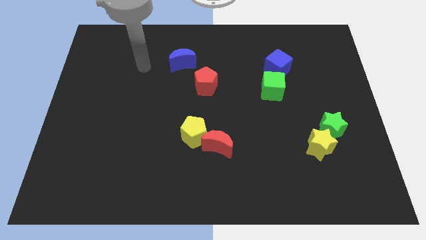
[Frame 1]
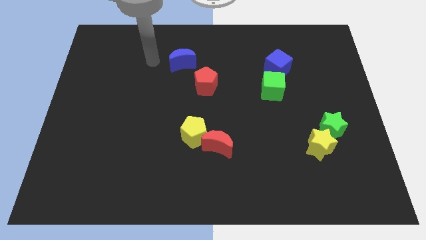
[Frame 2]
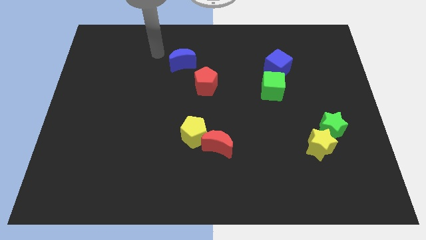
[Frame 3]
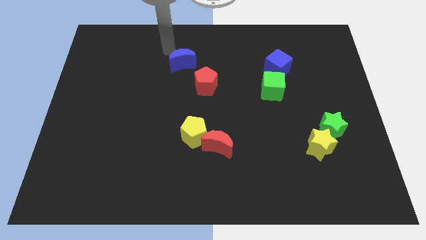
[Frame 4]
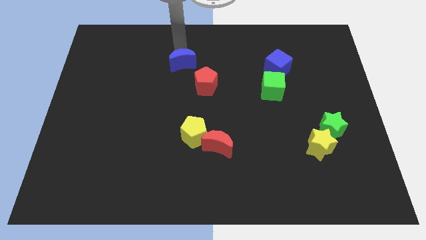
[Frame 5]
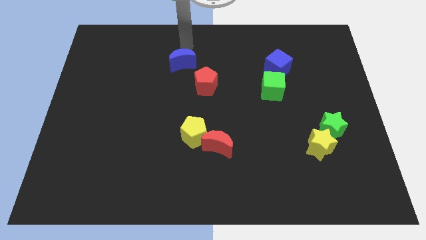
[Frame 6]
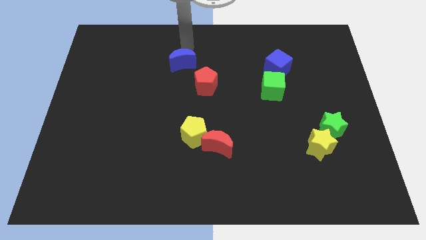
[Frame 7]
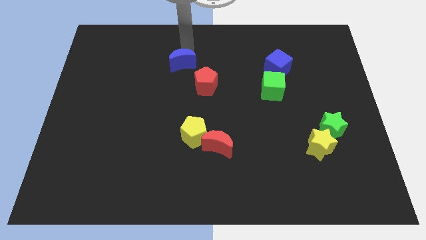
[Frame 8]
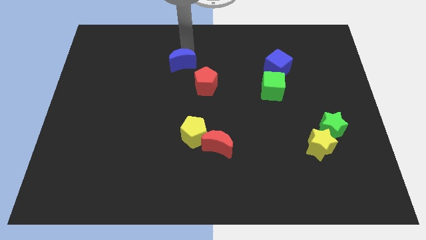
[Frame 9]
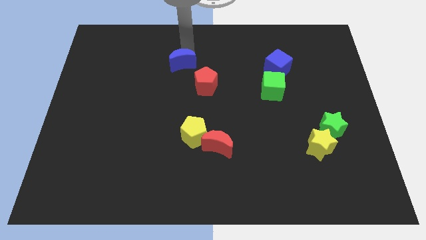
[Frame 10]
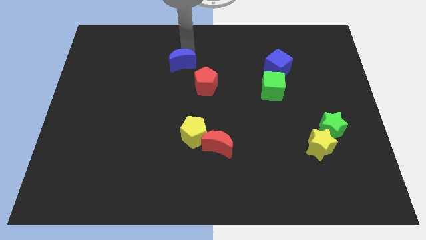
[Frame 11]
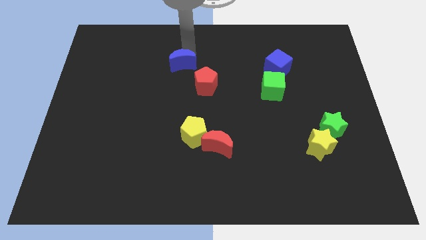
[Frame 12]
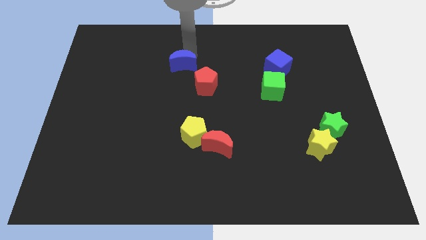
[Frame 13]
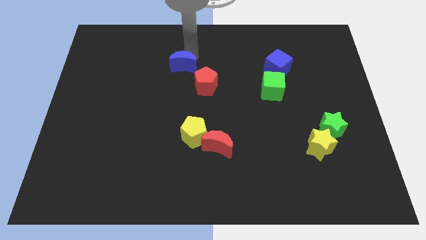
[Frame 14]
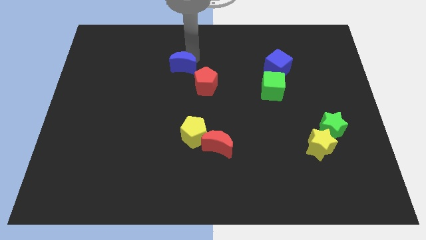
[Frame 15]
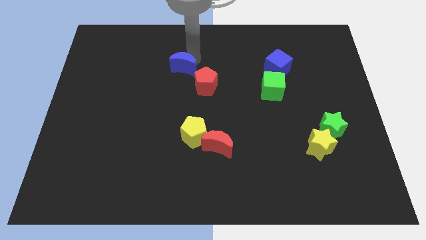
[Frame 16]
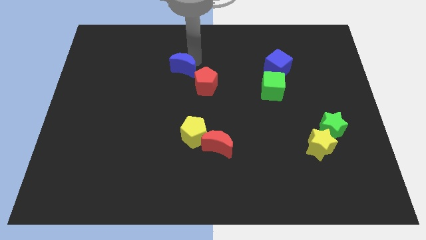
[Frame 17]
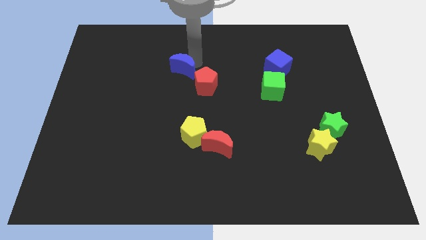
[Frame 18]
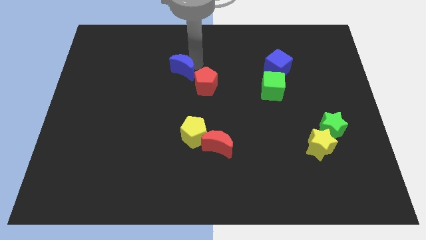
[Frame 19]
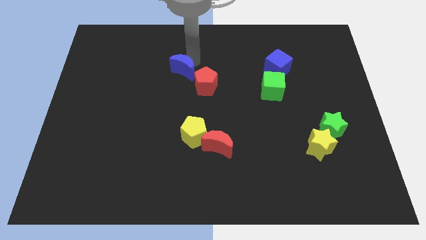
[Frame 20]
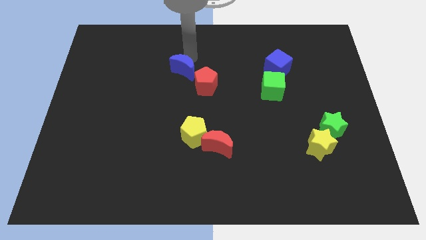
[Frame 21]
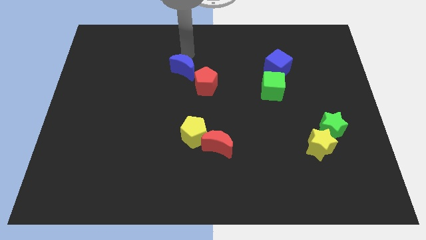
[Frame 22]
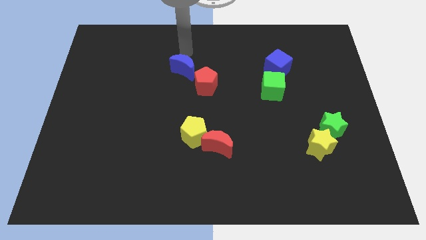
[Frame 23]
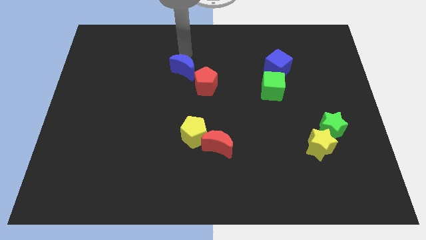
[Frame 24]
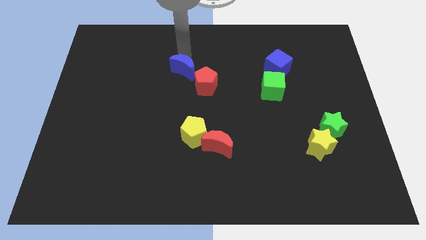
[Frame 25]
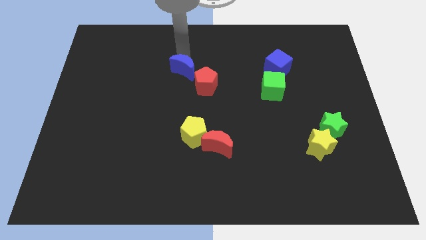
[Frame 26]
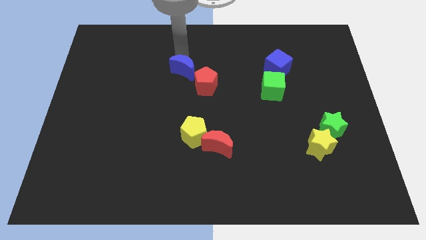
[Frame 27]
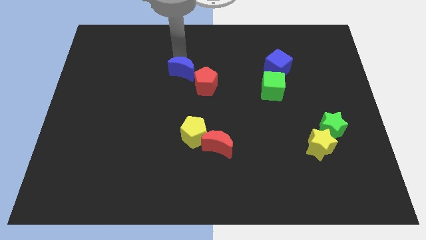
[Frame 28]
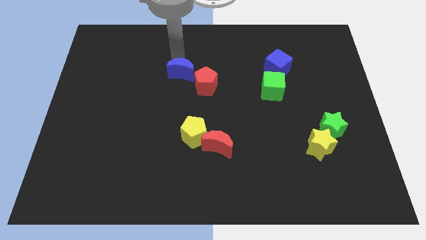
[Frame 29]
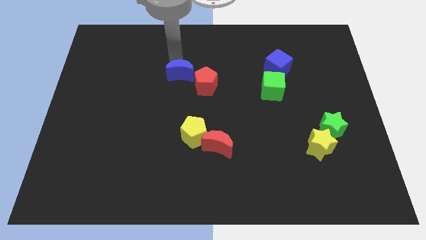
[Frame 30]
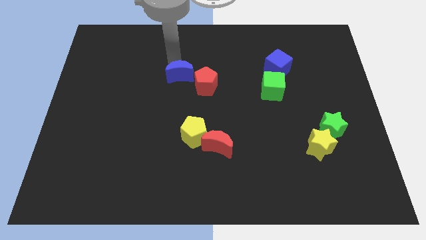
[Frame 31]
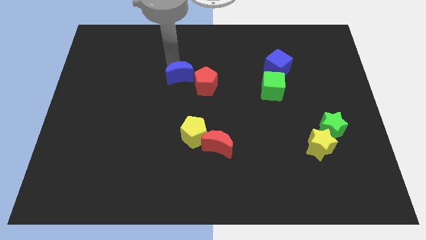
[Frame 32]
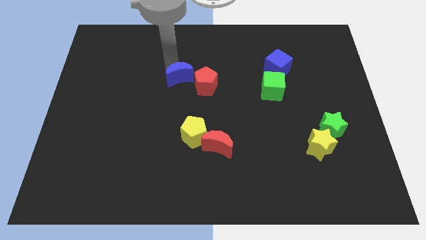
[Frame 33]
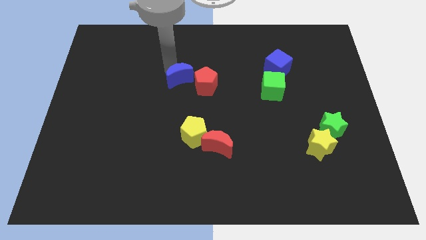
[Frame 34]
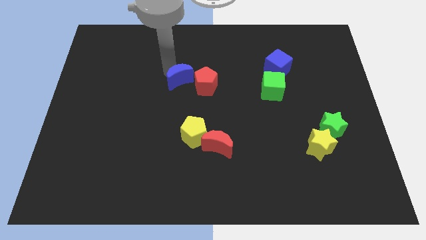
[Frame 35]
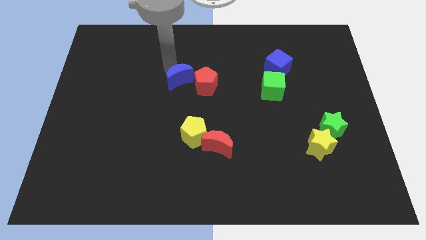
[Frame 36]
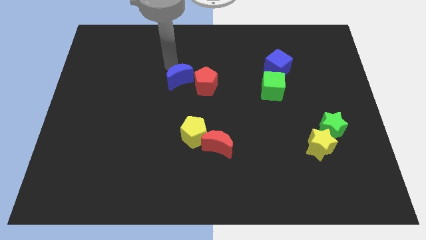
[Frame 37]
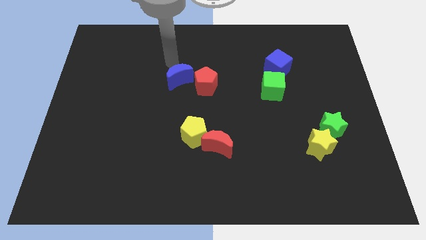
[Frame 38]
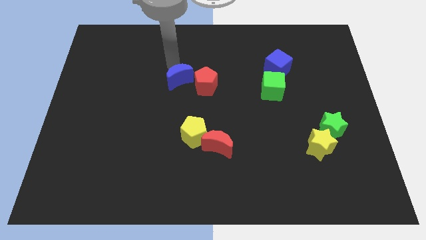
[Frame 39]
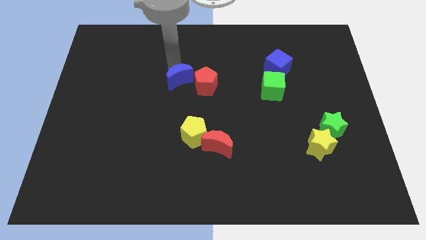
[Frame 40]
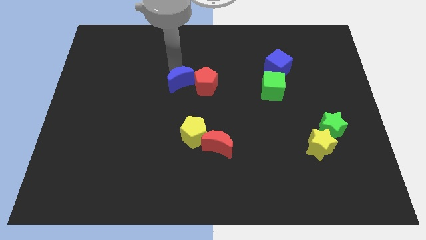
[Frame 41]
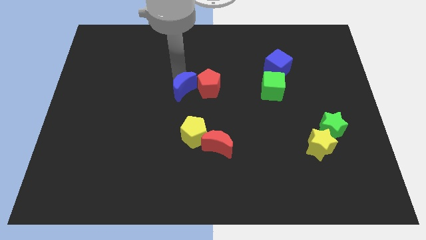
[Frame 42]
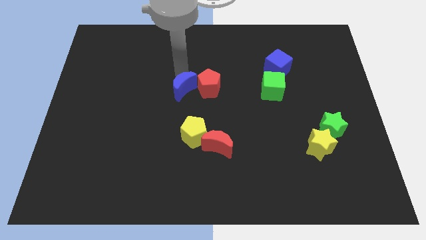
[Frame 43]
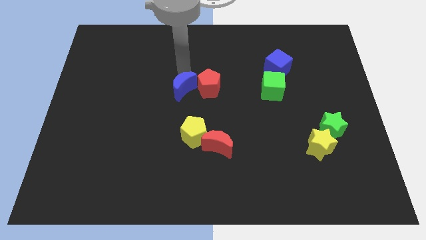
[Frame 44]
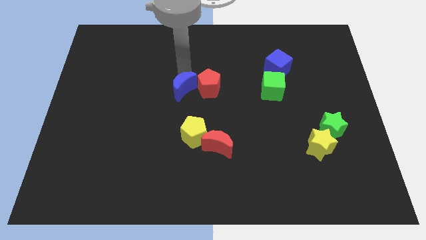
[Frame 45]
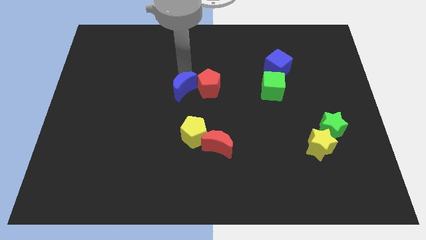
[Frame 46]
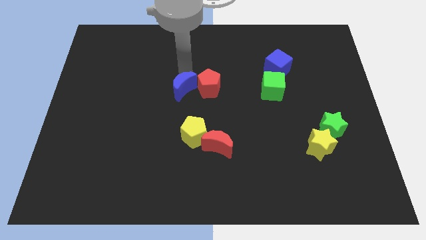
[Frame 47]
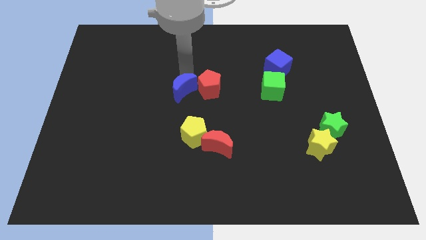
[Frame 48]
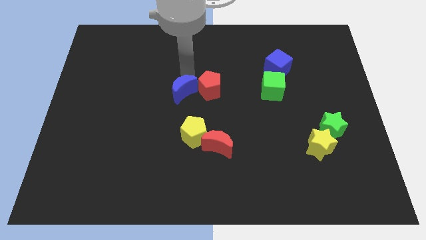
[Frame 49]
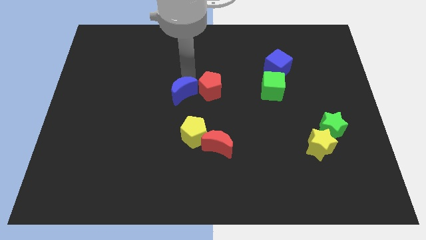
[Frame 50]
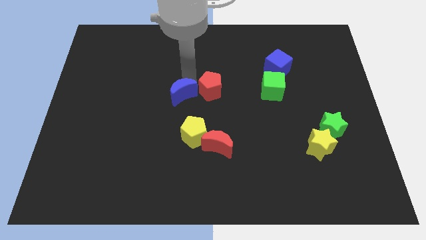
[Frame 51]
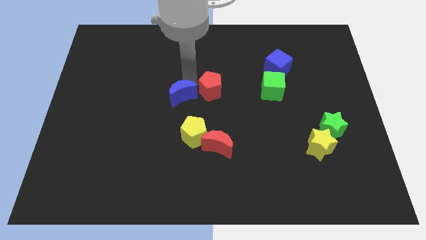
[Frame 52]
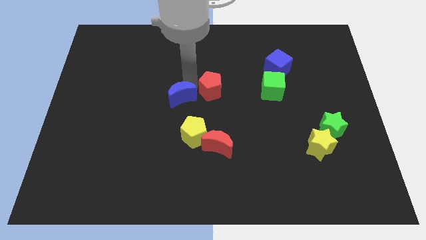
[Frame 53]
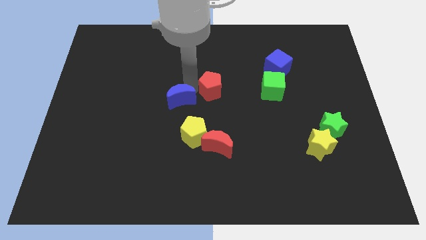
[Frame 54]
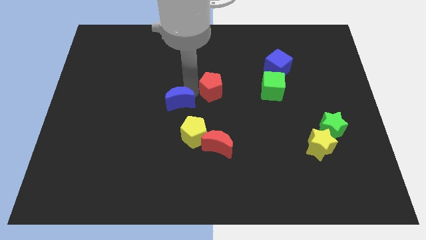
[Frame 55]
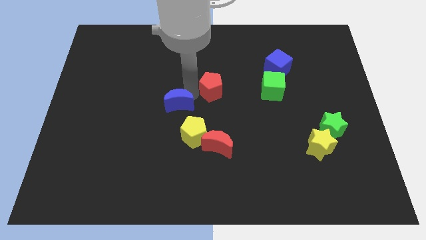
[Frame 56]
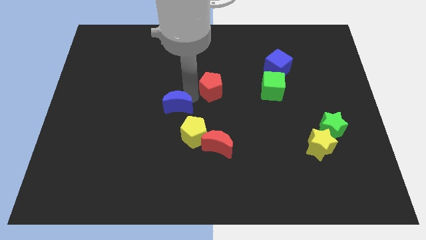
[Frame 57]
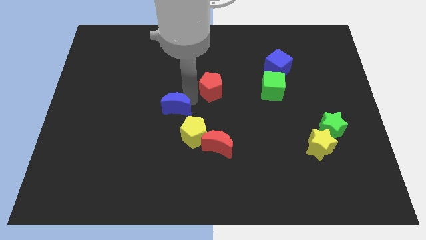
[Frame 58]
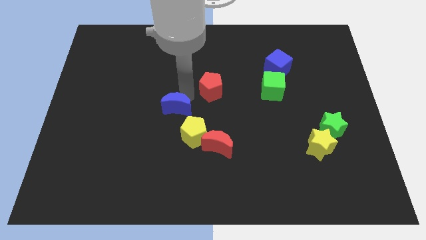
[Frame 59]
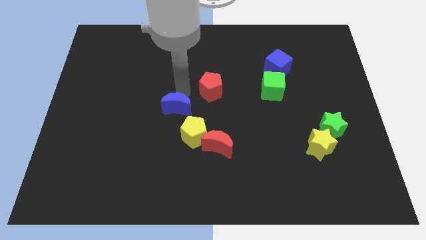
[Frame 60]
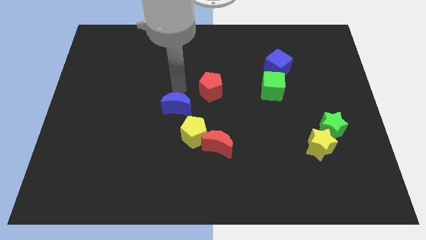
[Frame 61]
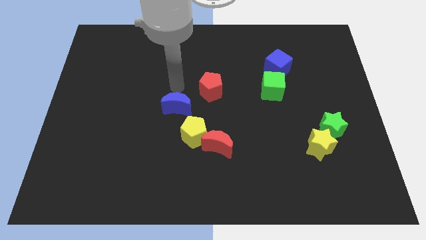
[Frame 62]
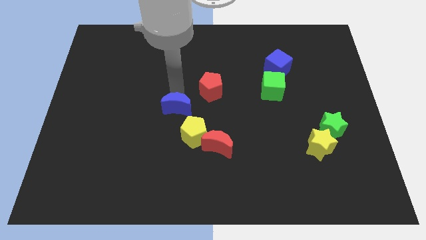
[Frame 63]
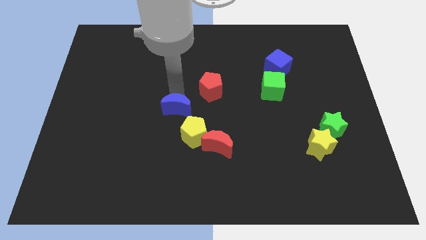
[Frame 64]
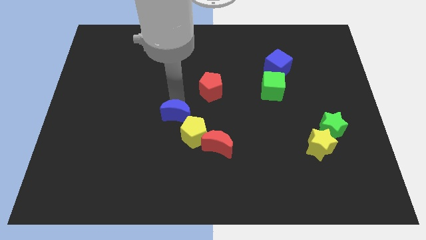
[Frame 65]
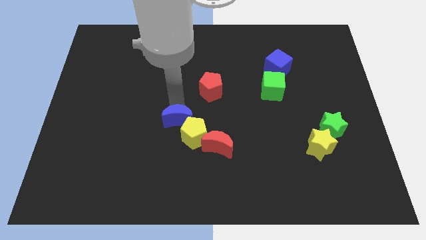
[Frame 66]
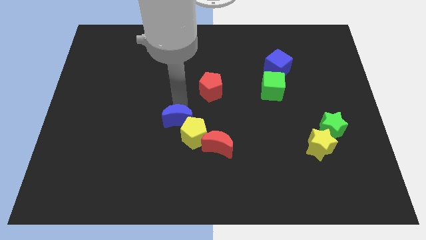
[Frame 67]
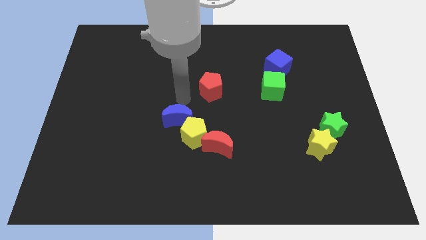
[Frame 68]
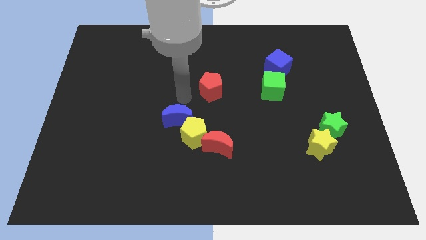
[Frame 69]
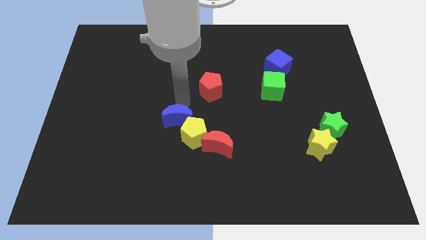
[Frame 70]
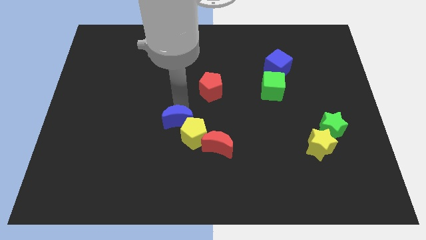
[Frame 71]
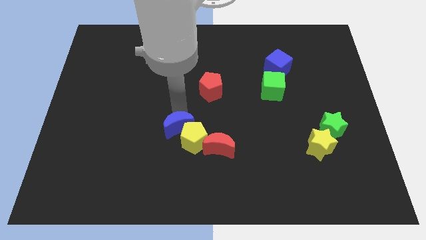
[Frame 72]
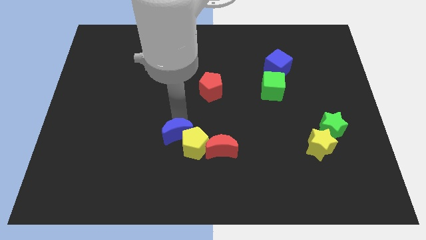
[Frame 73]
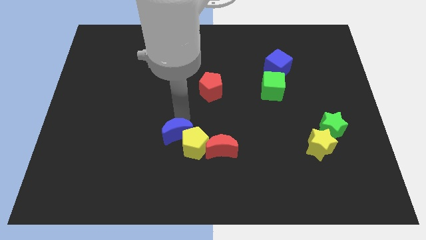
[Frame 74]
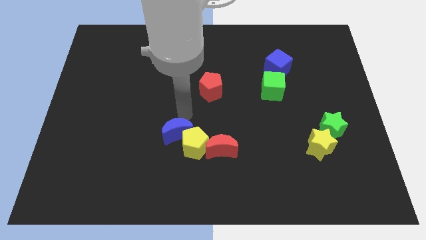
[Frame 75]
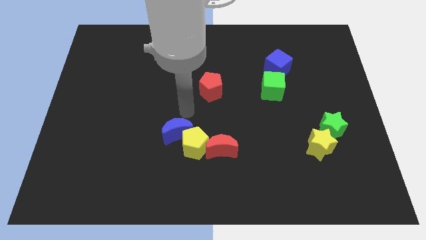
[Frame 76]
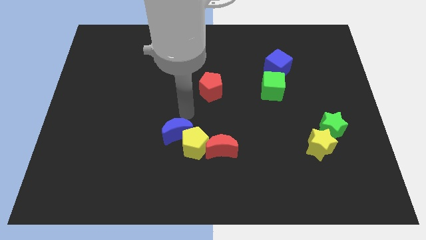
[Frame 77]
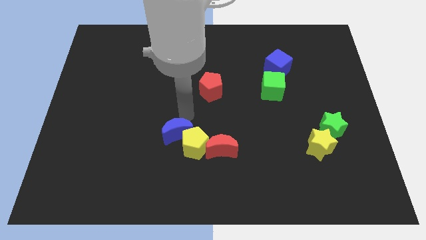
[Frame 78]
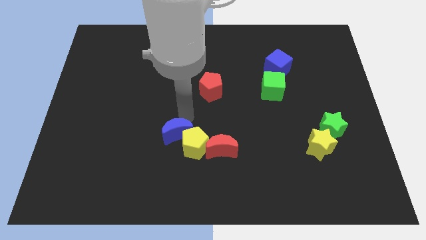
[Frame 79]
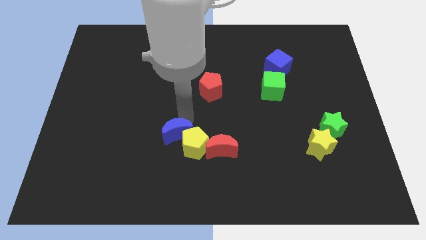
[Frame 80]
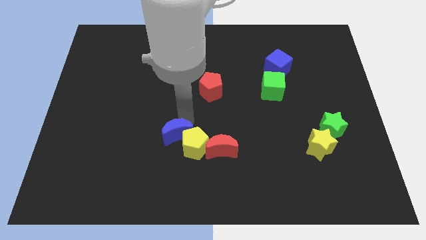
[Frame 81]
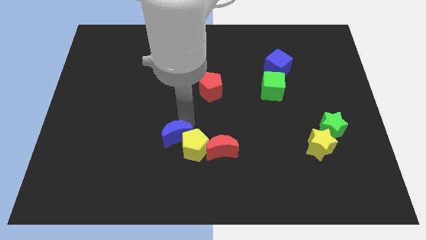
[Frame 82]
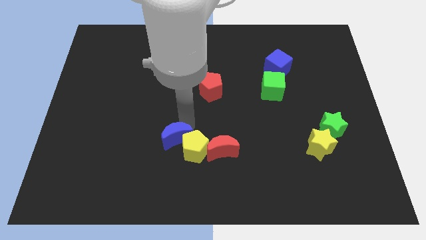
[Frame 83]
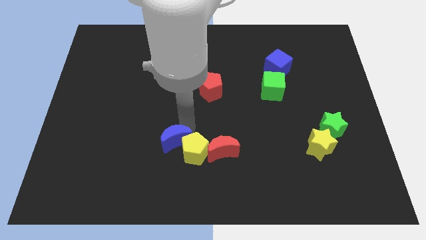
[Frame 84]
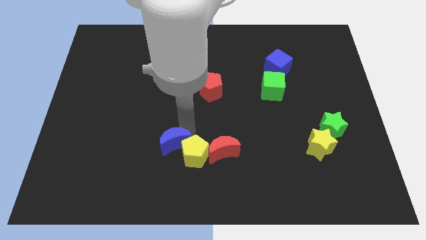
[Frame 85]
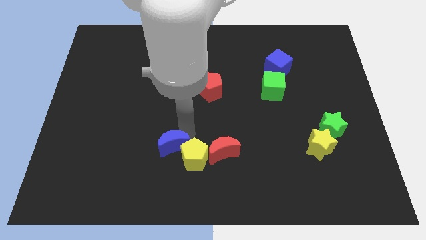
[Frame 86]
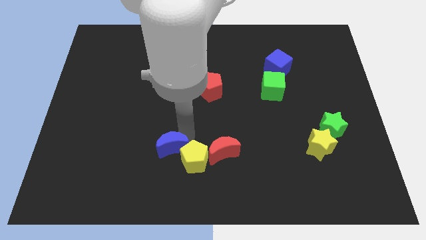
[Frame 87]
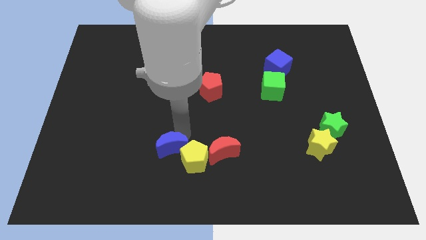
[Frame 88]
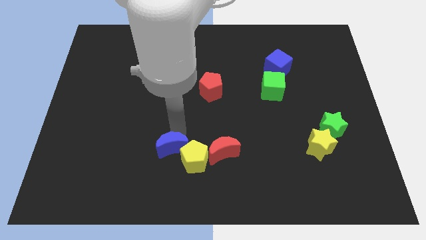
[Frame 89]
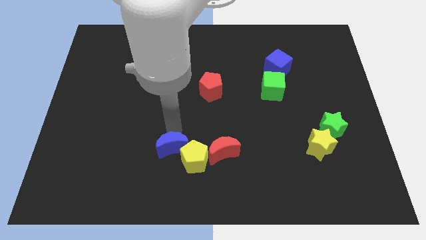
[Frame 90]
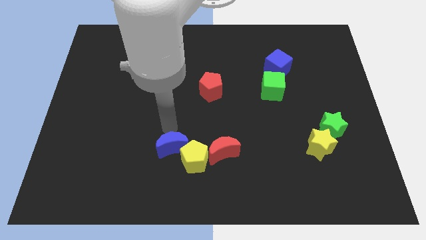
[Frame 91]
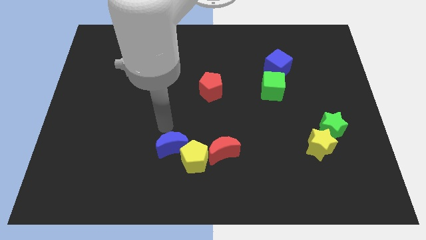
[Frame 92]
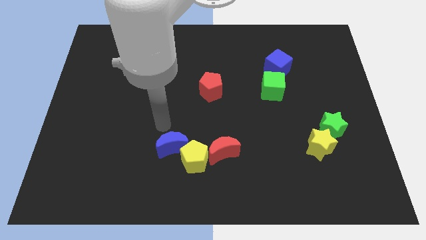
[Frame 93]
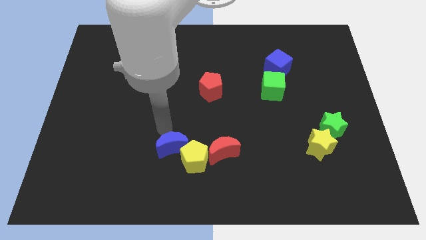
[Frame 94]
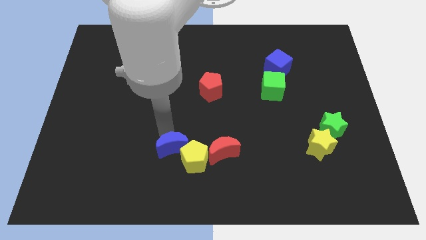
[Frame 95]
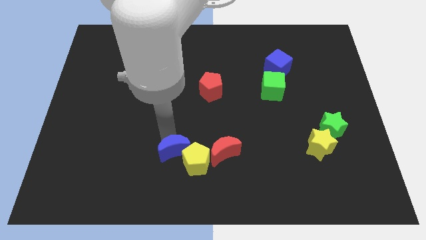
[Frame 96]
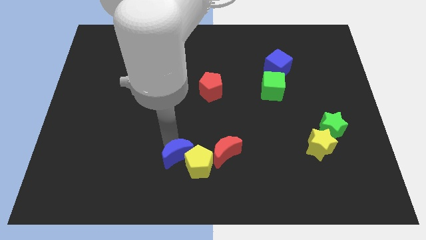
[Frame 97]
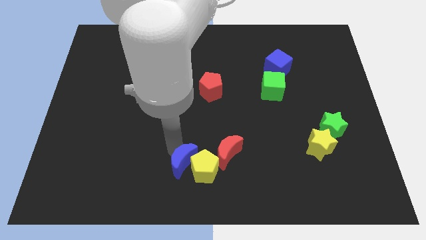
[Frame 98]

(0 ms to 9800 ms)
put the blue moon to the bottom
